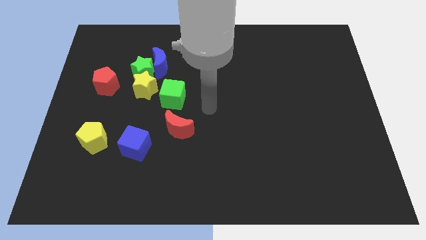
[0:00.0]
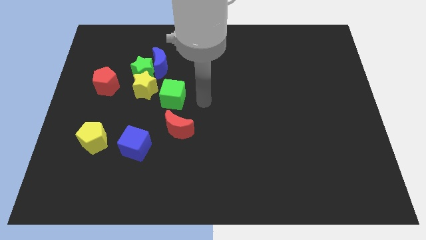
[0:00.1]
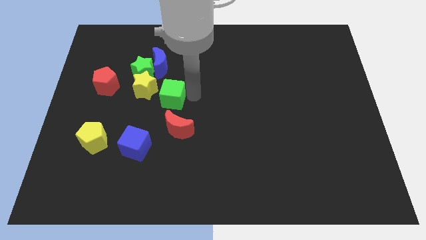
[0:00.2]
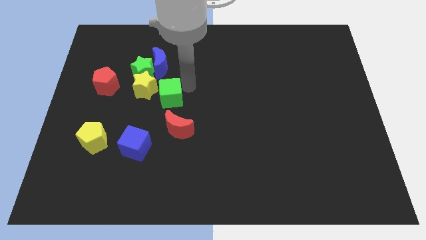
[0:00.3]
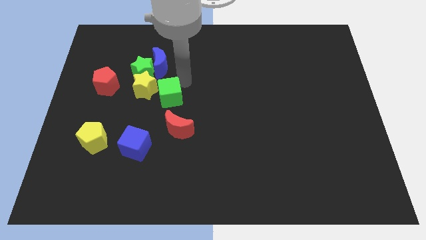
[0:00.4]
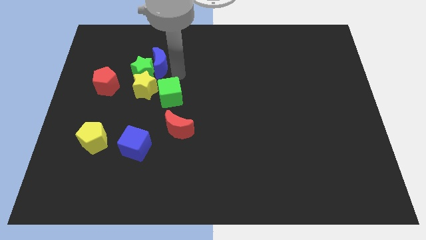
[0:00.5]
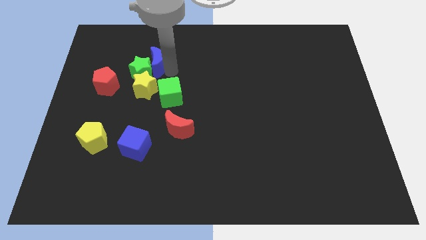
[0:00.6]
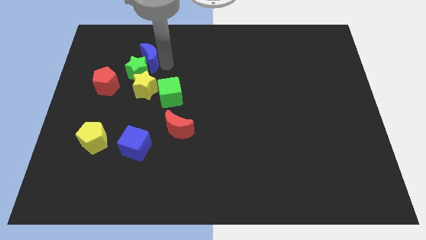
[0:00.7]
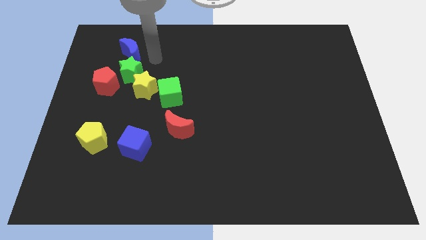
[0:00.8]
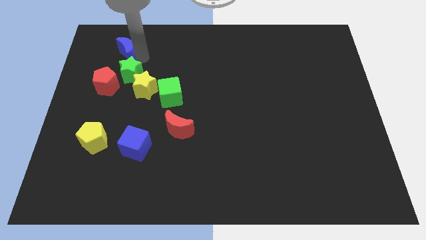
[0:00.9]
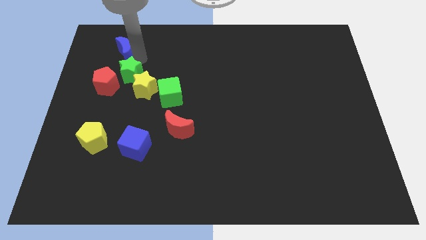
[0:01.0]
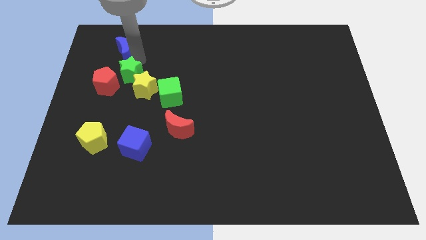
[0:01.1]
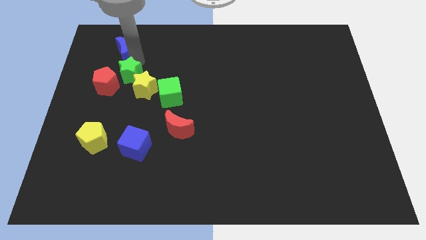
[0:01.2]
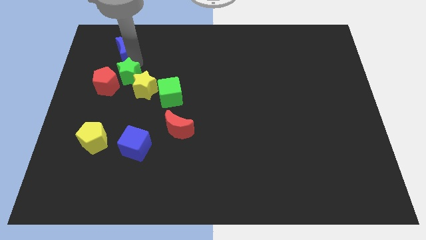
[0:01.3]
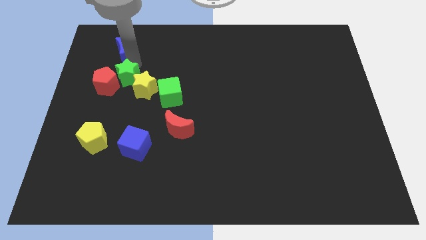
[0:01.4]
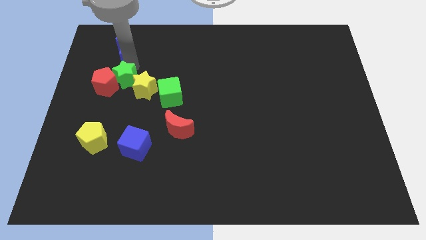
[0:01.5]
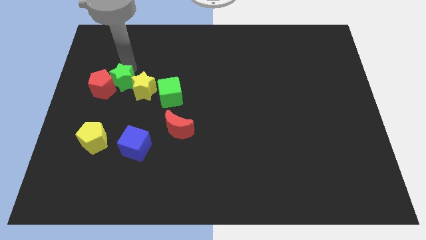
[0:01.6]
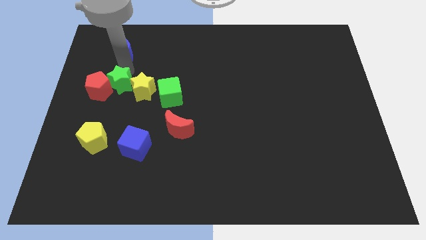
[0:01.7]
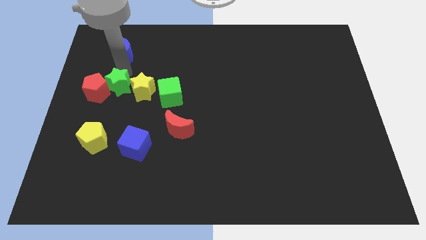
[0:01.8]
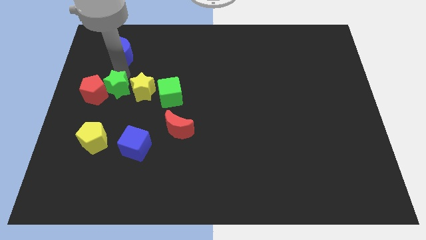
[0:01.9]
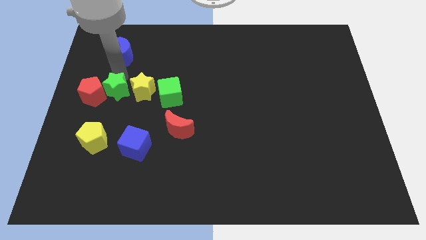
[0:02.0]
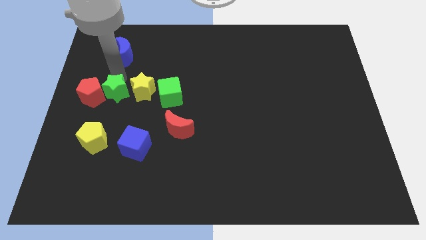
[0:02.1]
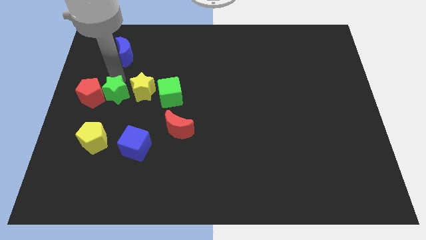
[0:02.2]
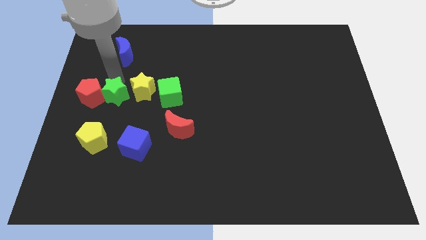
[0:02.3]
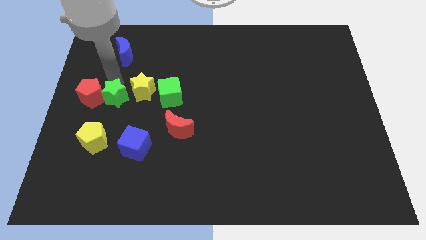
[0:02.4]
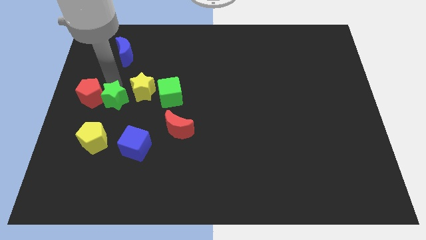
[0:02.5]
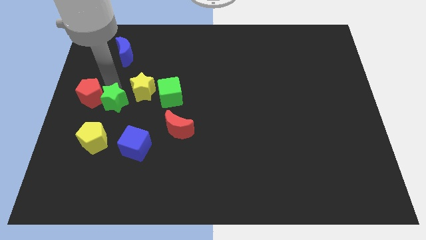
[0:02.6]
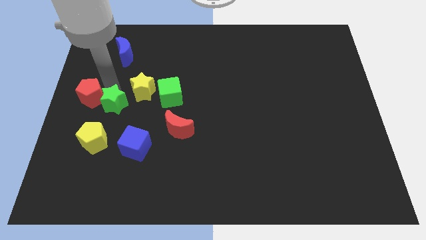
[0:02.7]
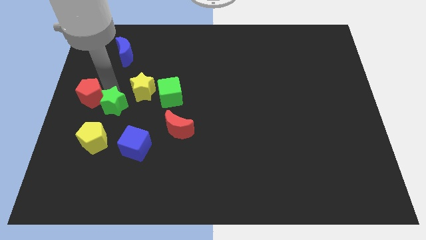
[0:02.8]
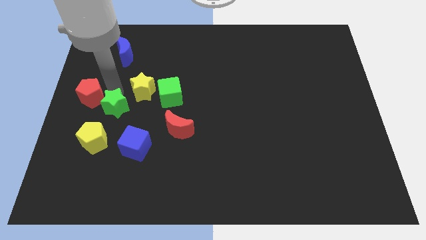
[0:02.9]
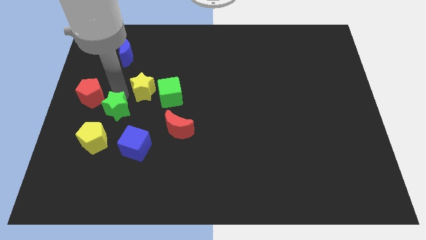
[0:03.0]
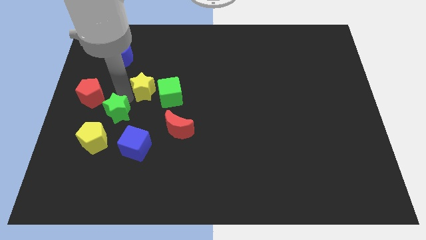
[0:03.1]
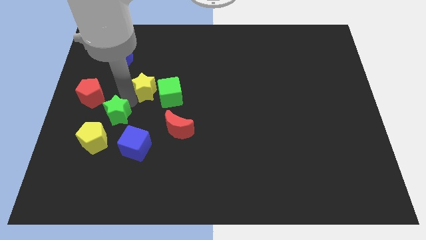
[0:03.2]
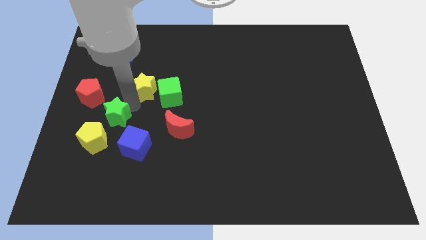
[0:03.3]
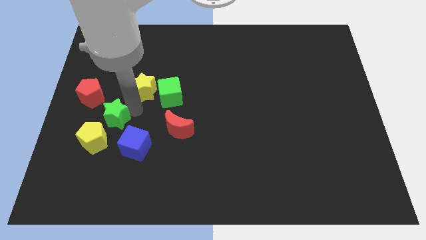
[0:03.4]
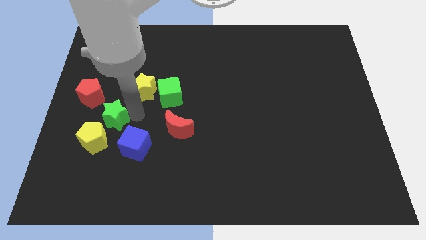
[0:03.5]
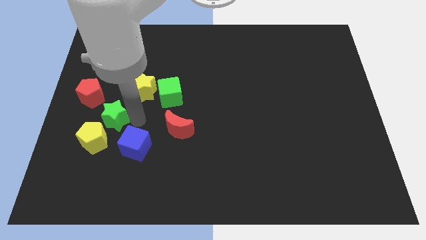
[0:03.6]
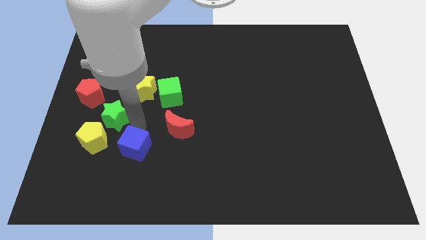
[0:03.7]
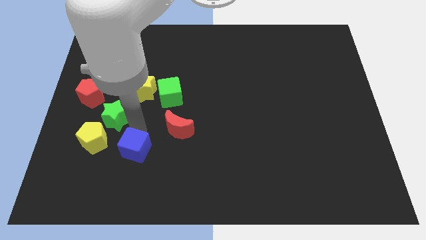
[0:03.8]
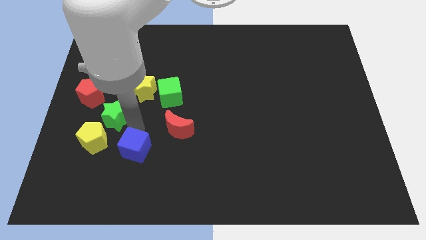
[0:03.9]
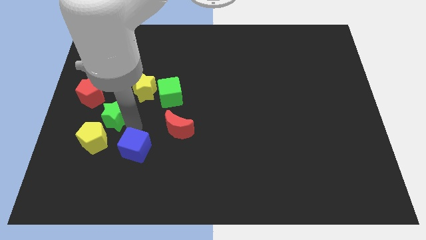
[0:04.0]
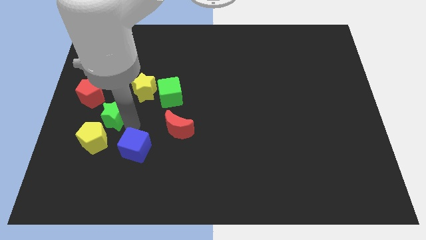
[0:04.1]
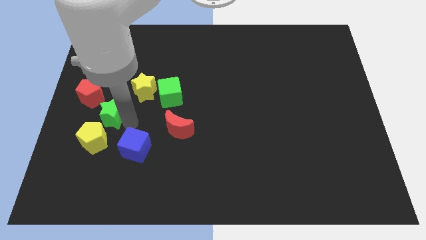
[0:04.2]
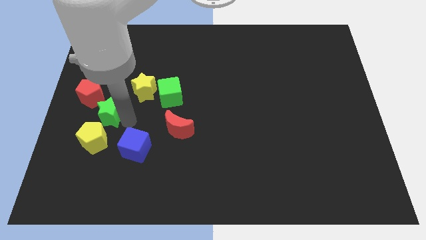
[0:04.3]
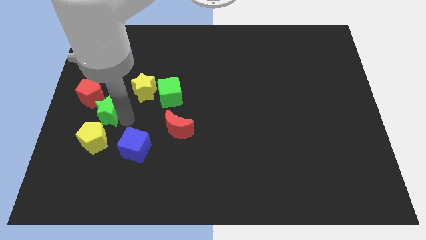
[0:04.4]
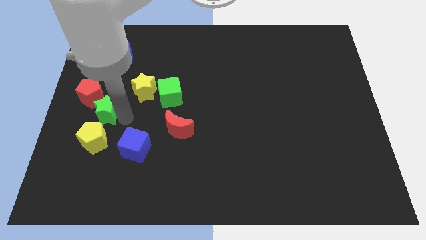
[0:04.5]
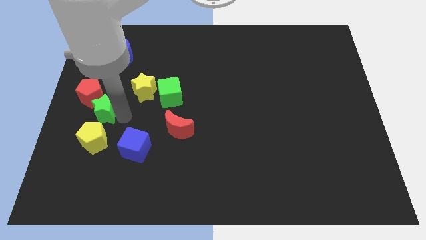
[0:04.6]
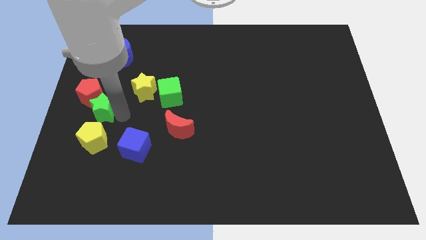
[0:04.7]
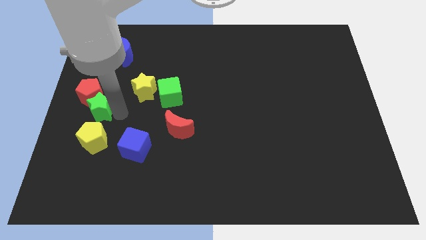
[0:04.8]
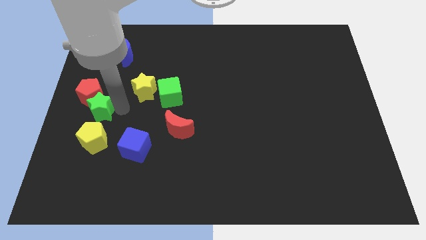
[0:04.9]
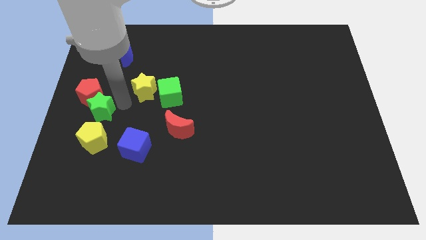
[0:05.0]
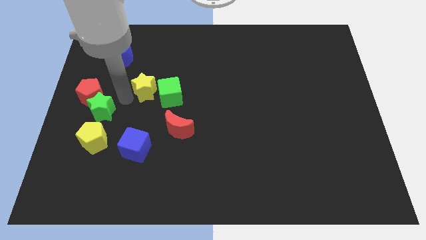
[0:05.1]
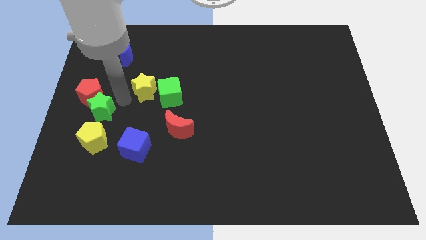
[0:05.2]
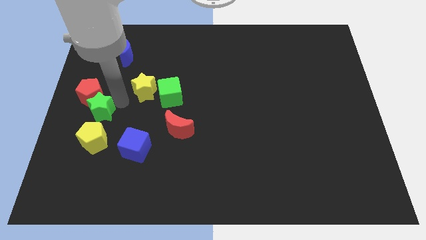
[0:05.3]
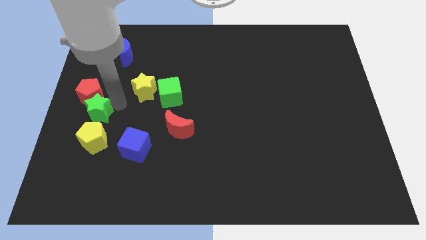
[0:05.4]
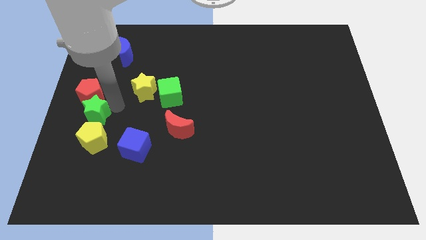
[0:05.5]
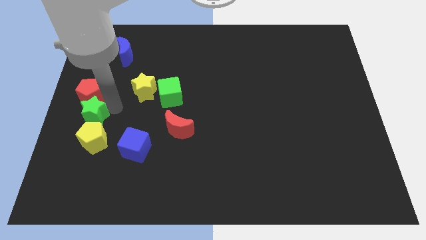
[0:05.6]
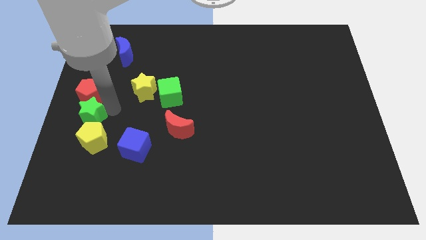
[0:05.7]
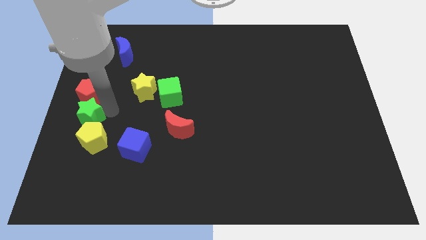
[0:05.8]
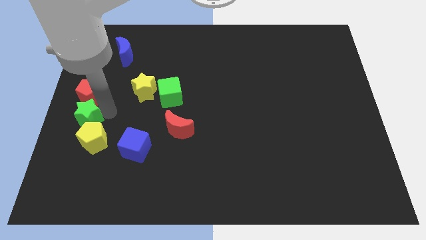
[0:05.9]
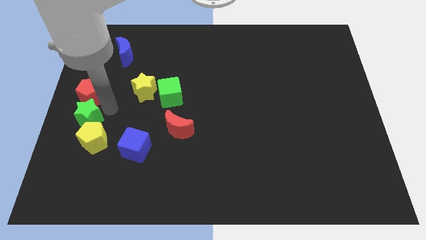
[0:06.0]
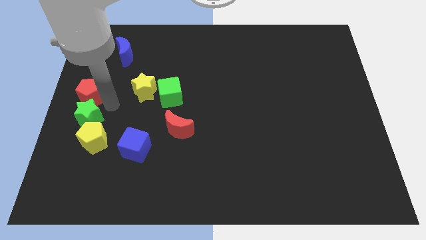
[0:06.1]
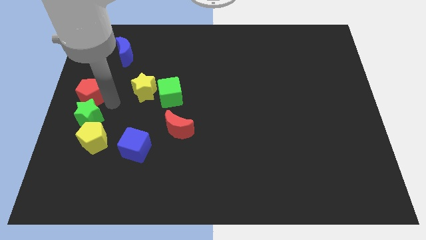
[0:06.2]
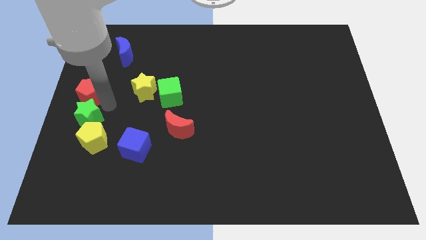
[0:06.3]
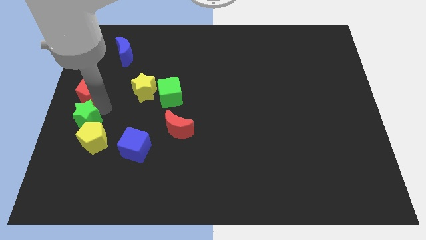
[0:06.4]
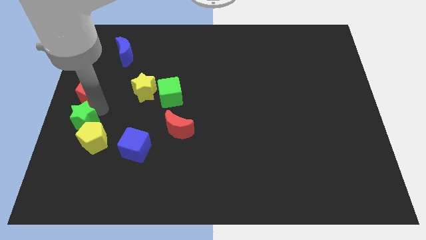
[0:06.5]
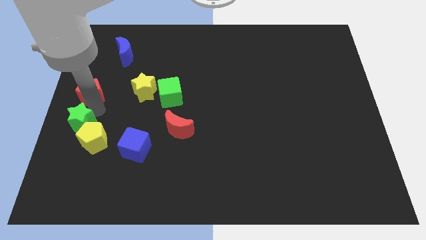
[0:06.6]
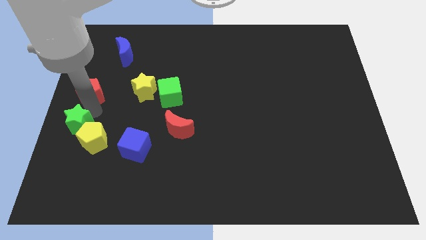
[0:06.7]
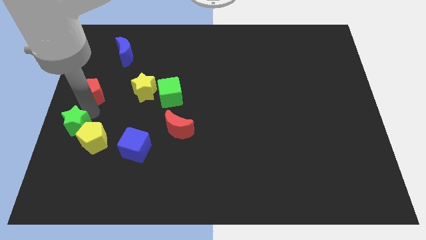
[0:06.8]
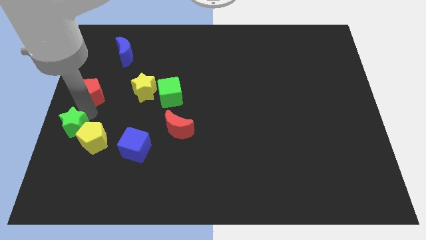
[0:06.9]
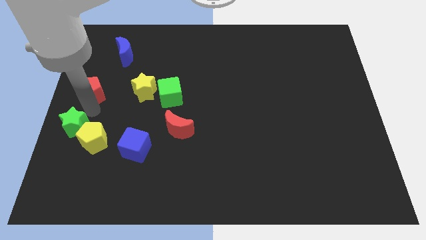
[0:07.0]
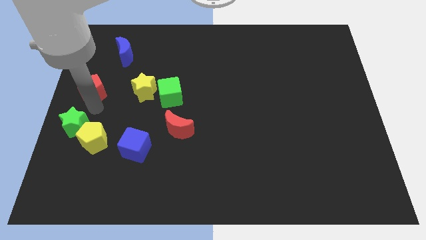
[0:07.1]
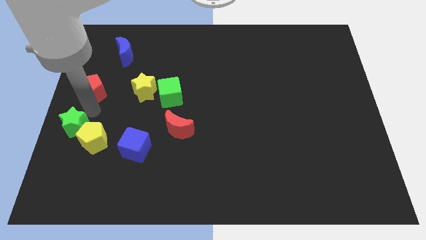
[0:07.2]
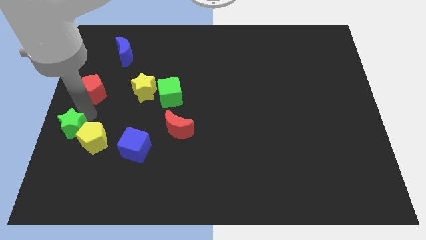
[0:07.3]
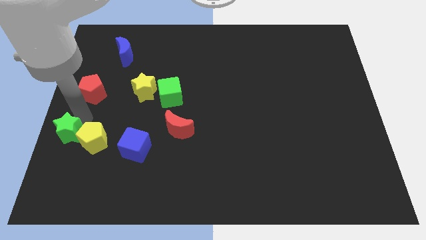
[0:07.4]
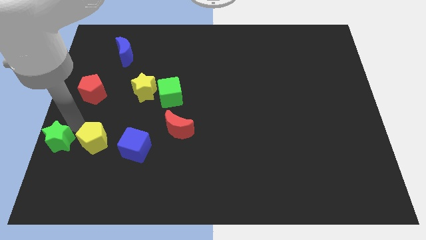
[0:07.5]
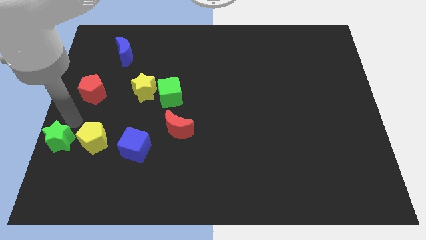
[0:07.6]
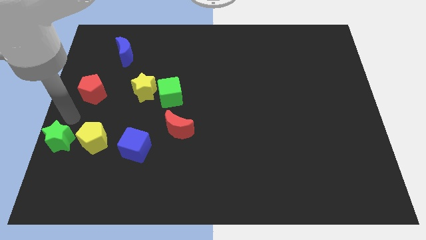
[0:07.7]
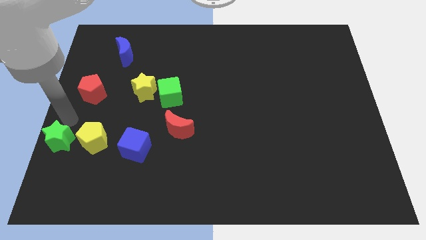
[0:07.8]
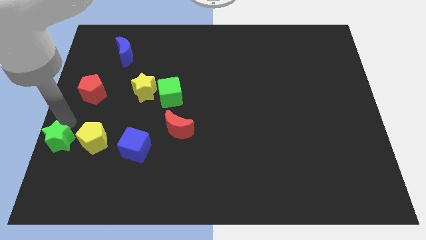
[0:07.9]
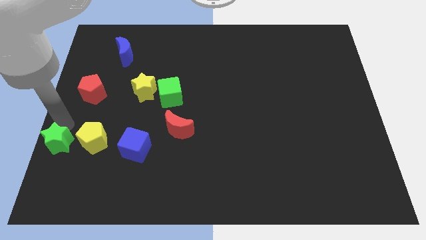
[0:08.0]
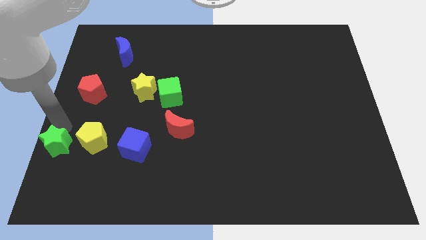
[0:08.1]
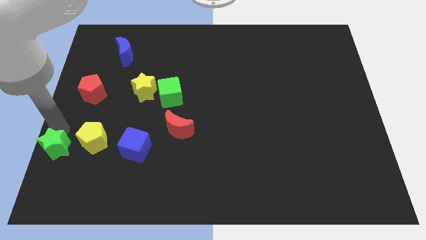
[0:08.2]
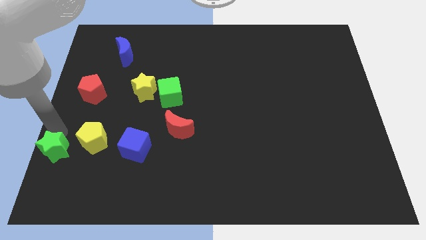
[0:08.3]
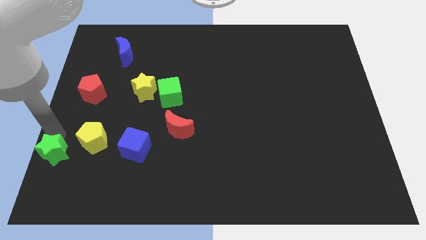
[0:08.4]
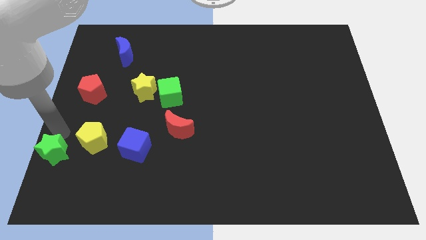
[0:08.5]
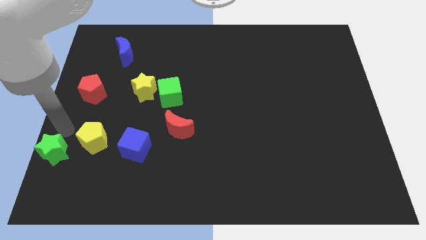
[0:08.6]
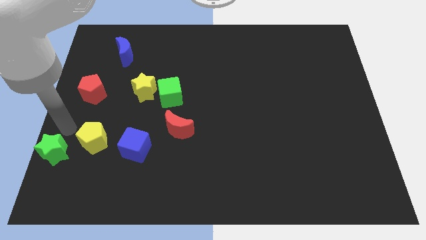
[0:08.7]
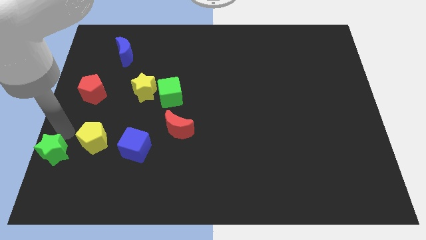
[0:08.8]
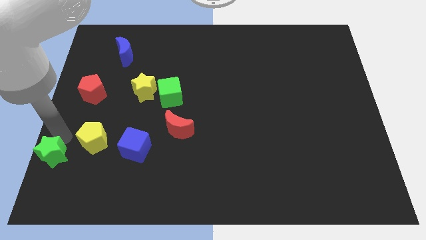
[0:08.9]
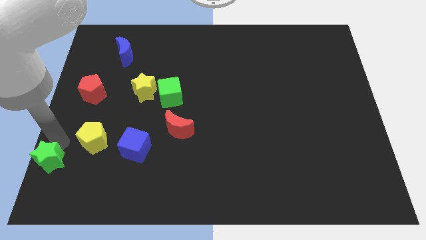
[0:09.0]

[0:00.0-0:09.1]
move the green star to the bottom left corner
